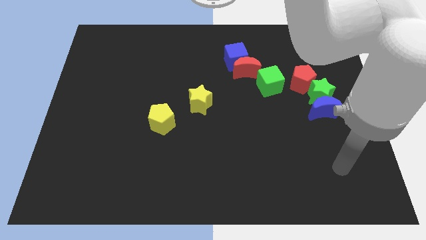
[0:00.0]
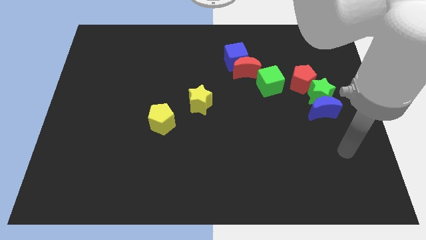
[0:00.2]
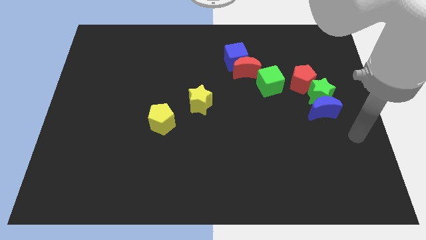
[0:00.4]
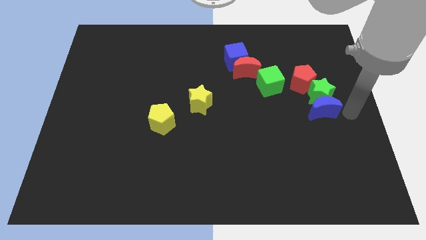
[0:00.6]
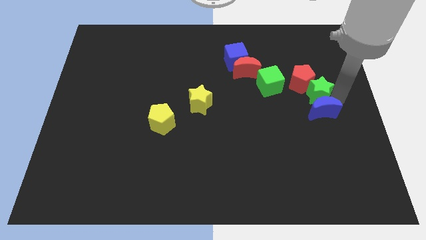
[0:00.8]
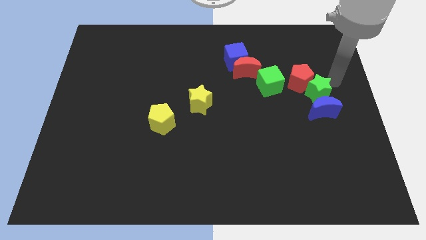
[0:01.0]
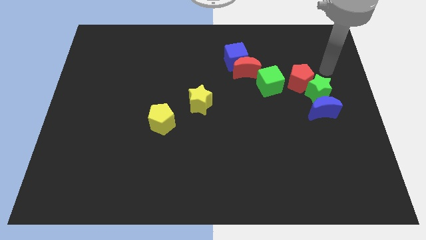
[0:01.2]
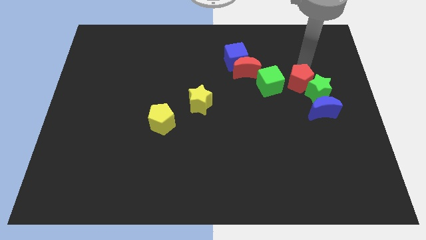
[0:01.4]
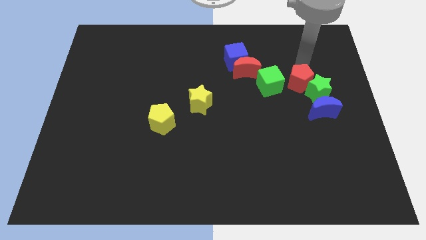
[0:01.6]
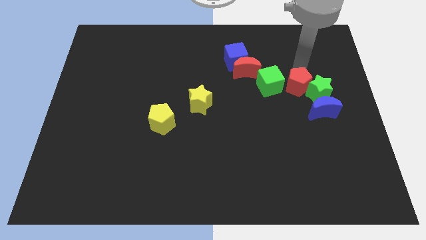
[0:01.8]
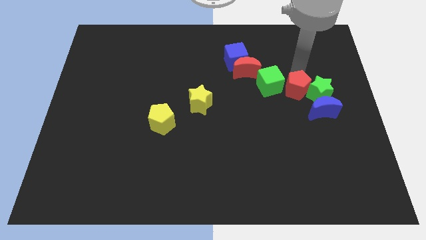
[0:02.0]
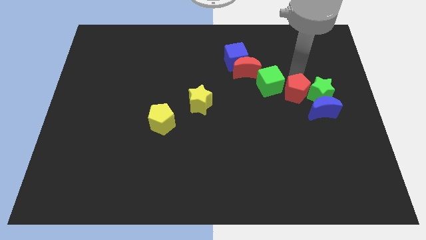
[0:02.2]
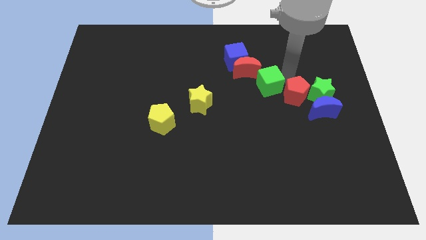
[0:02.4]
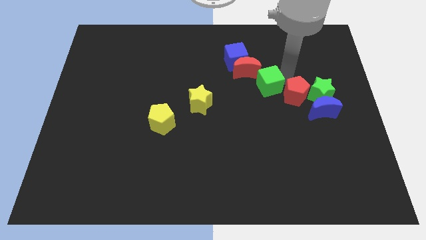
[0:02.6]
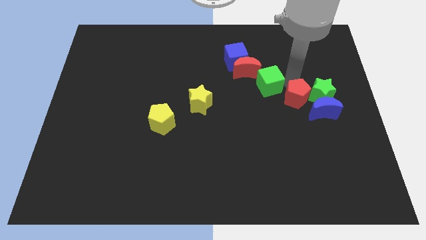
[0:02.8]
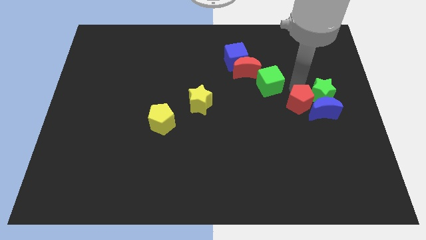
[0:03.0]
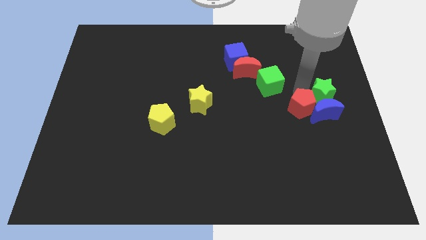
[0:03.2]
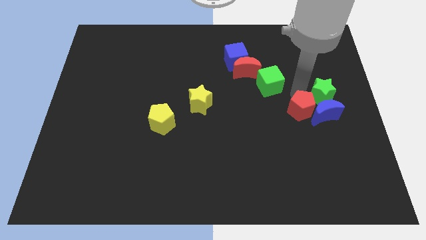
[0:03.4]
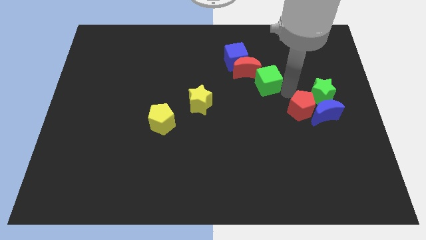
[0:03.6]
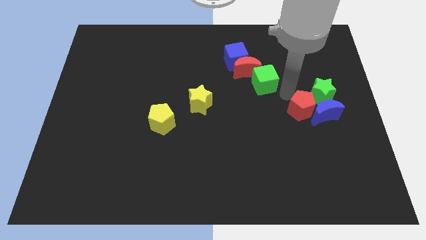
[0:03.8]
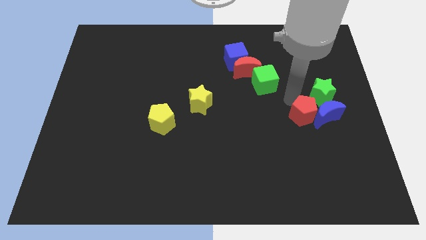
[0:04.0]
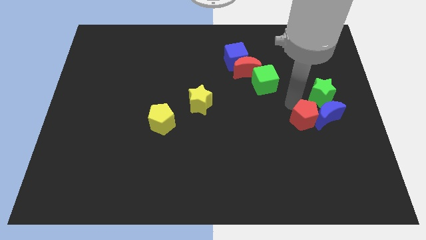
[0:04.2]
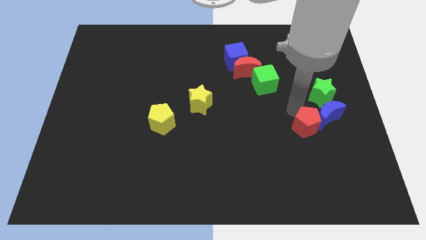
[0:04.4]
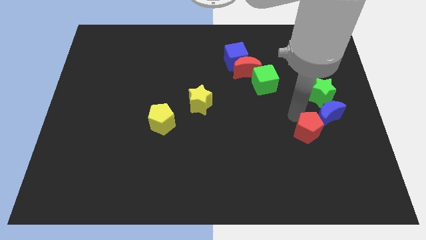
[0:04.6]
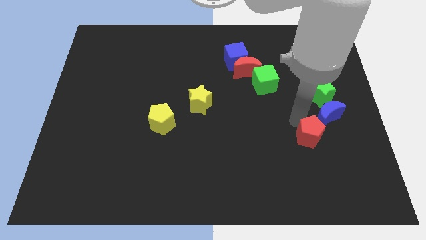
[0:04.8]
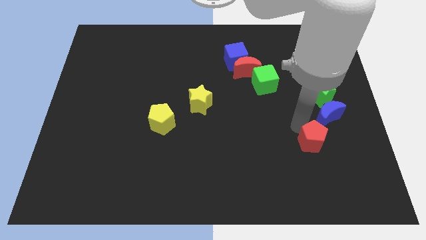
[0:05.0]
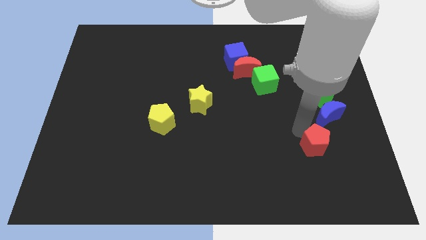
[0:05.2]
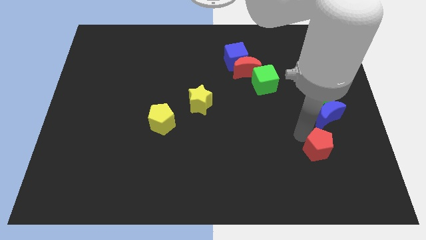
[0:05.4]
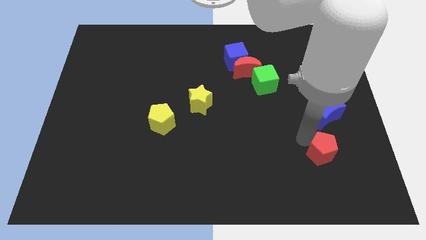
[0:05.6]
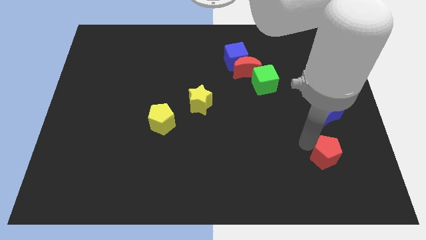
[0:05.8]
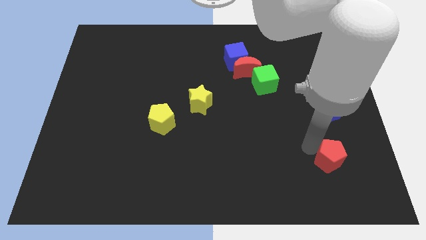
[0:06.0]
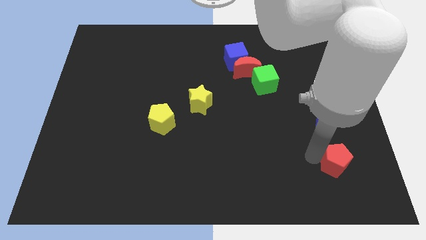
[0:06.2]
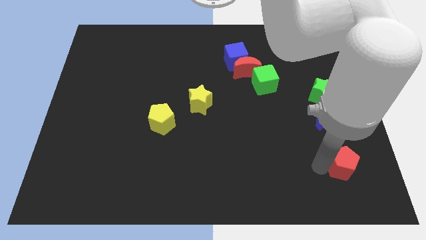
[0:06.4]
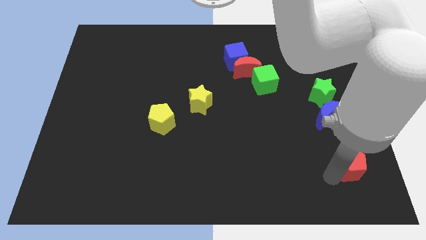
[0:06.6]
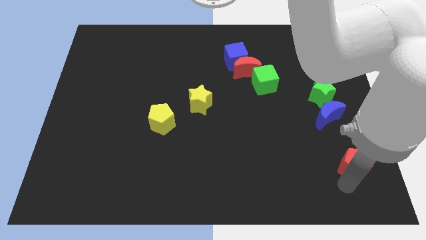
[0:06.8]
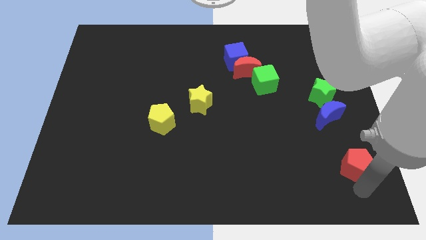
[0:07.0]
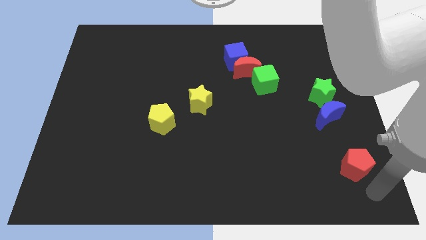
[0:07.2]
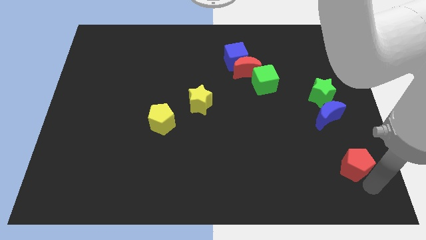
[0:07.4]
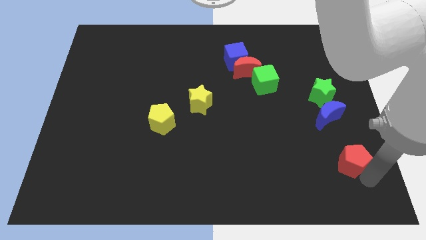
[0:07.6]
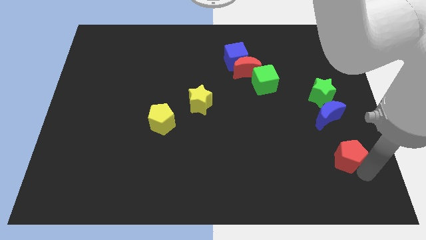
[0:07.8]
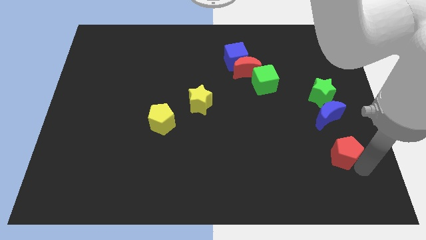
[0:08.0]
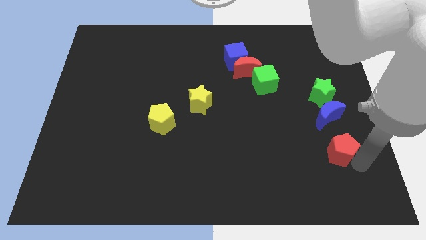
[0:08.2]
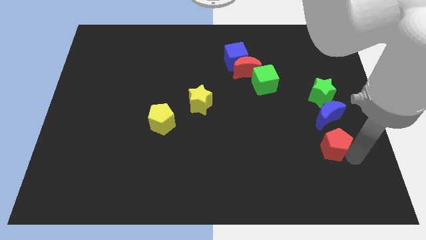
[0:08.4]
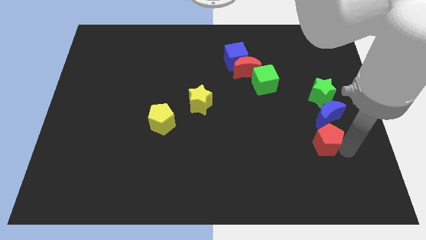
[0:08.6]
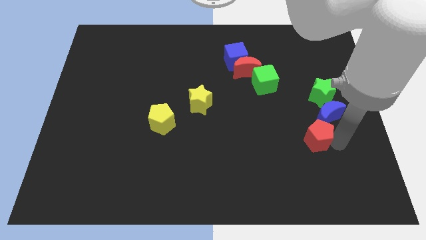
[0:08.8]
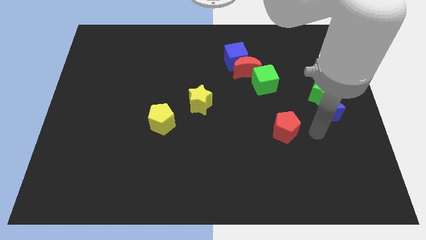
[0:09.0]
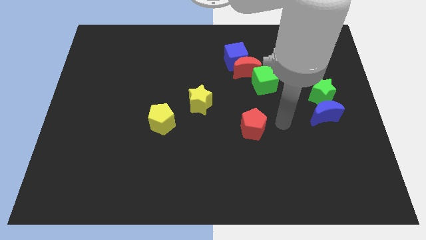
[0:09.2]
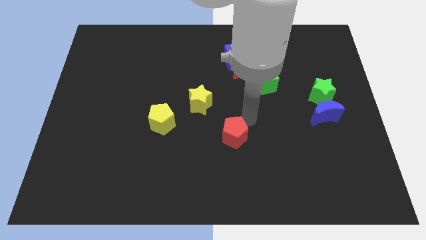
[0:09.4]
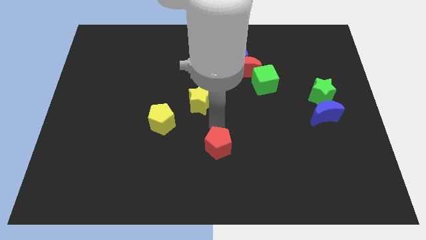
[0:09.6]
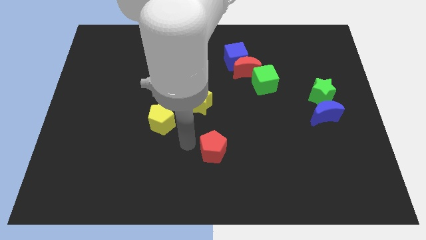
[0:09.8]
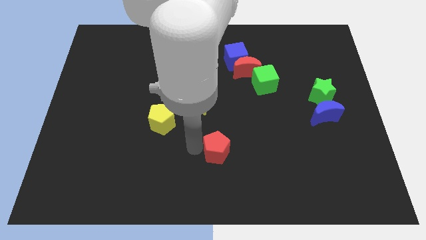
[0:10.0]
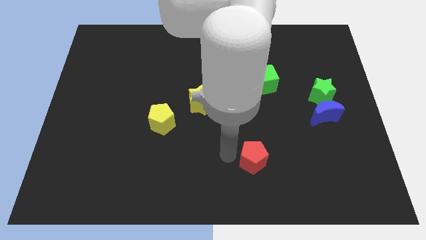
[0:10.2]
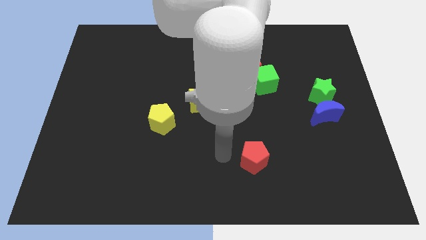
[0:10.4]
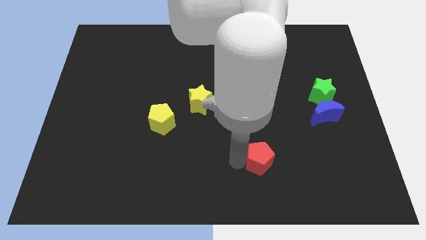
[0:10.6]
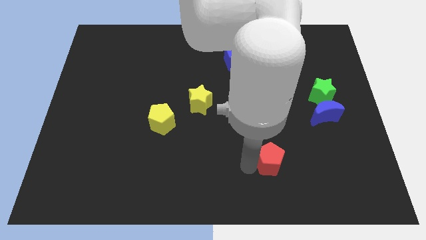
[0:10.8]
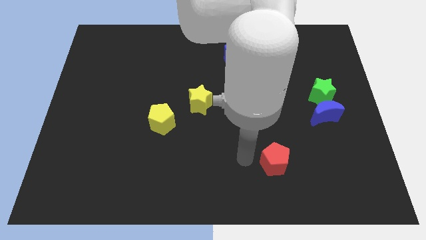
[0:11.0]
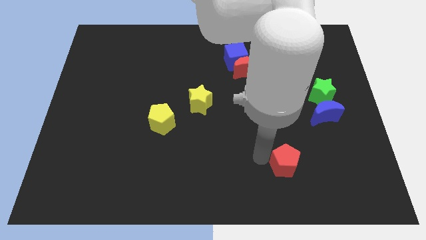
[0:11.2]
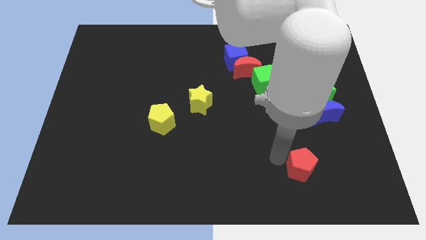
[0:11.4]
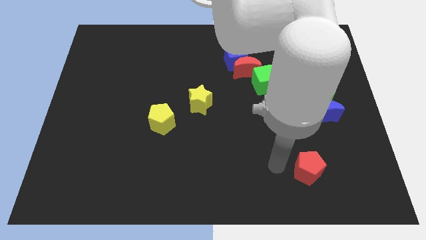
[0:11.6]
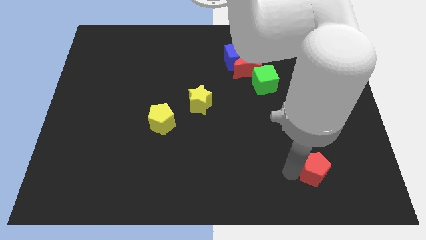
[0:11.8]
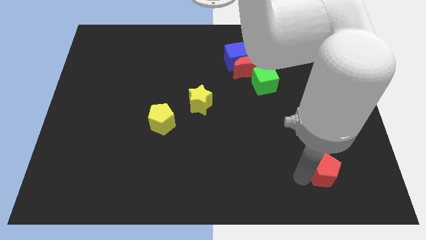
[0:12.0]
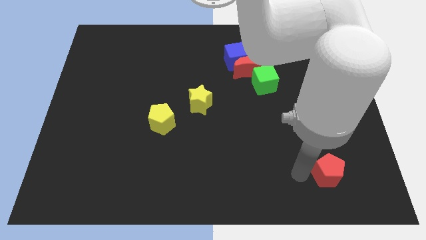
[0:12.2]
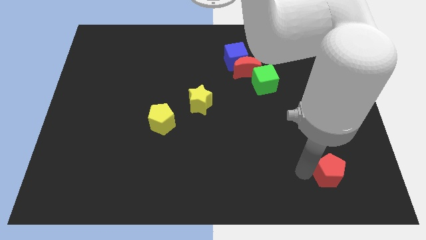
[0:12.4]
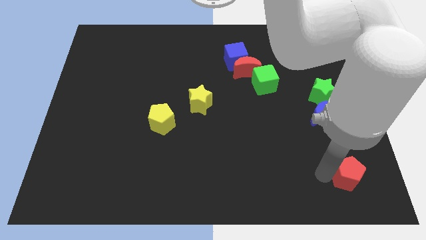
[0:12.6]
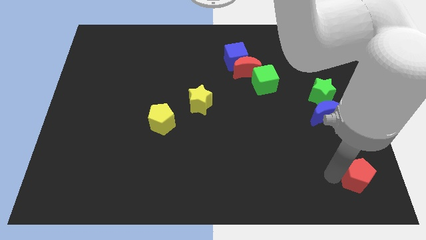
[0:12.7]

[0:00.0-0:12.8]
slide the red pentagon to the bottom right
